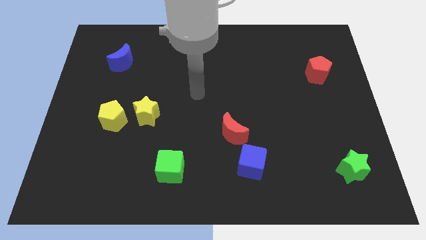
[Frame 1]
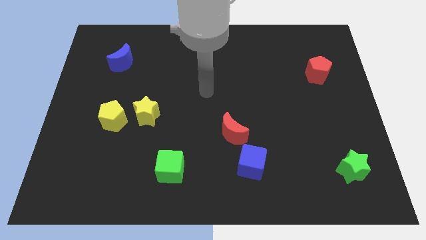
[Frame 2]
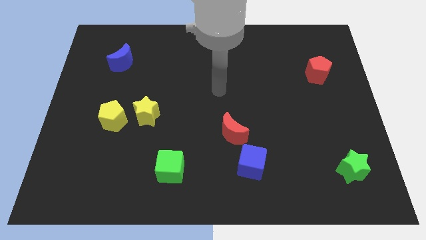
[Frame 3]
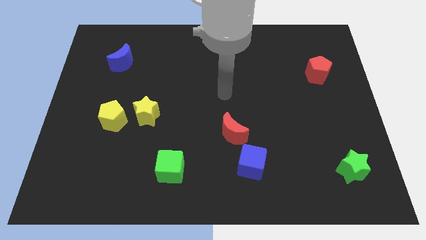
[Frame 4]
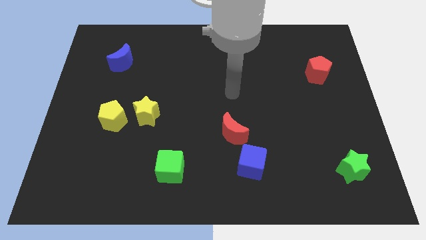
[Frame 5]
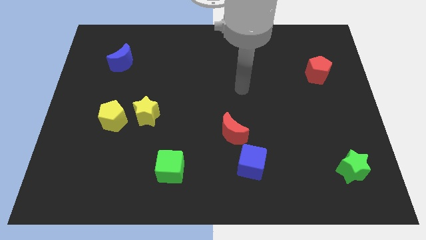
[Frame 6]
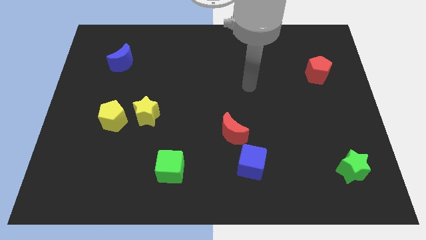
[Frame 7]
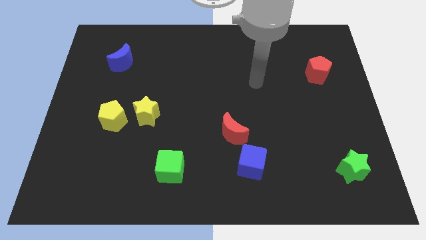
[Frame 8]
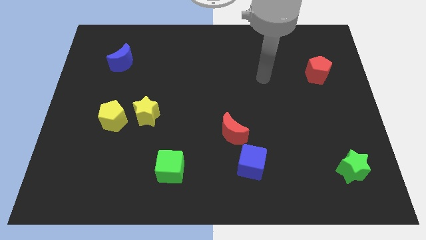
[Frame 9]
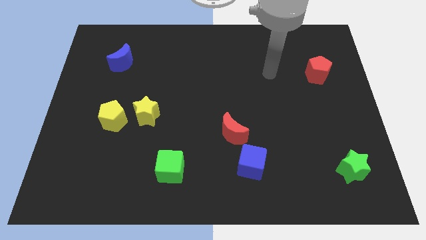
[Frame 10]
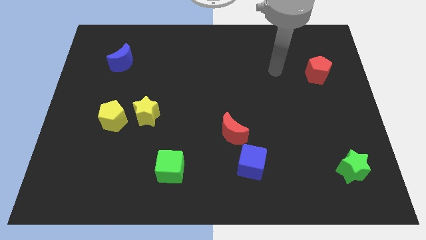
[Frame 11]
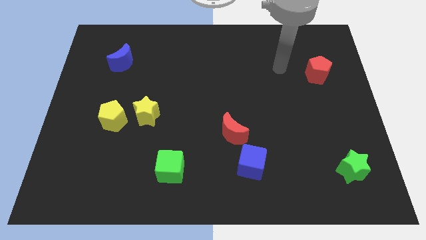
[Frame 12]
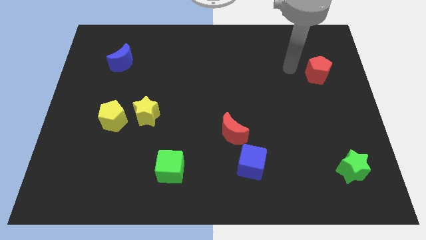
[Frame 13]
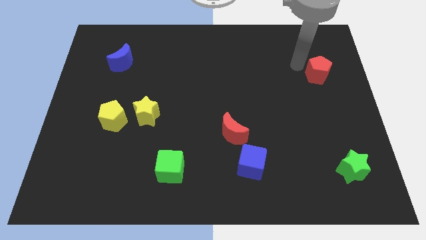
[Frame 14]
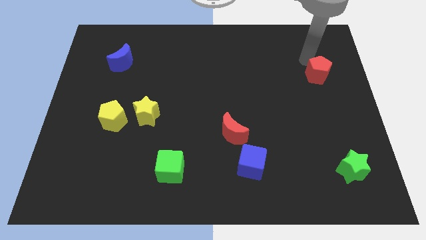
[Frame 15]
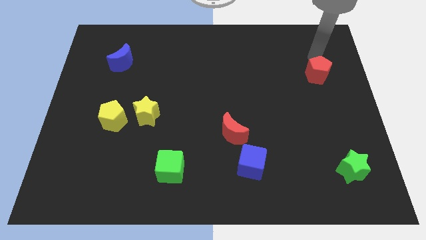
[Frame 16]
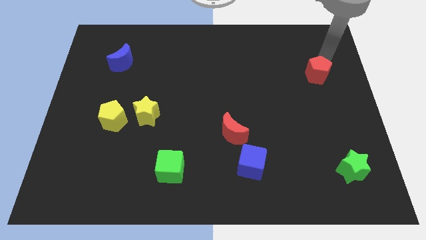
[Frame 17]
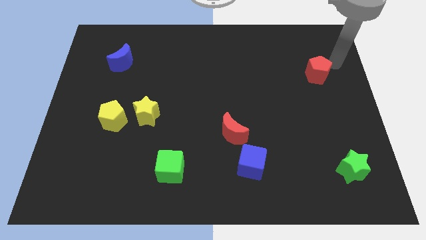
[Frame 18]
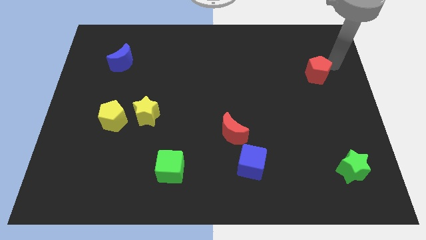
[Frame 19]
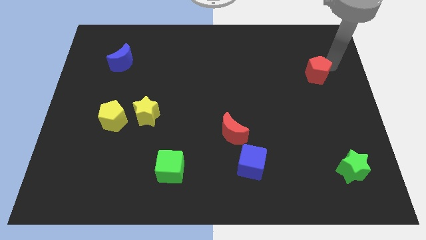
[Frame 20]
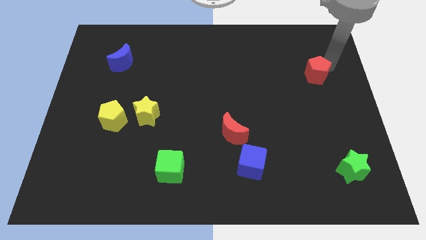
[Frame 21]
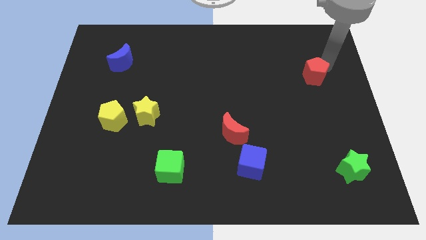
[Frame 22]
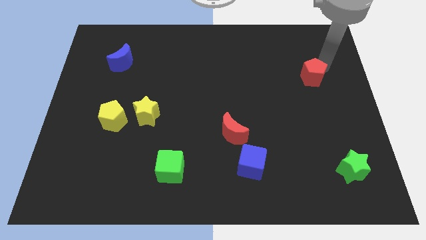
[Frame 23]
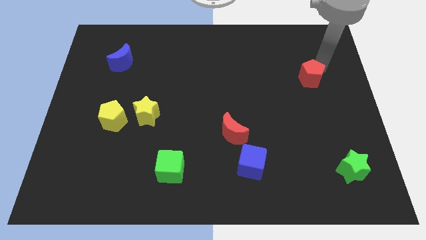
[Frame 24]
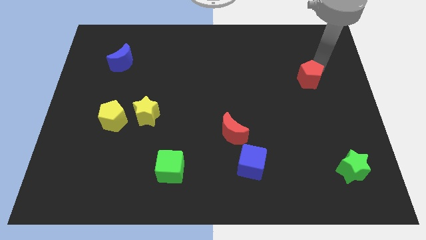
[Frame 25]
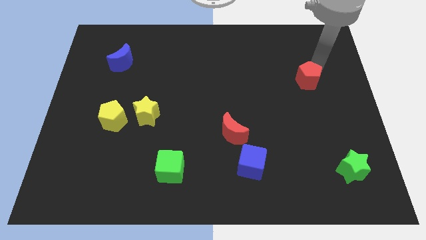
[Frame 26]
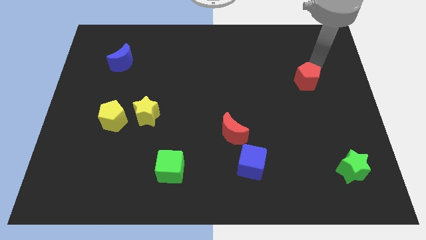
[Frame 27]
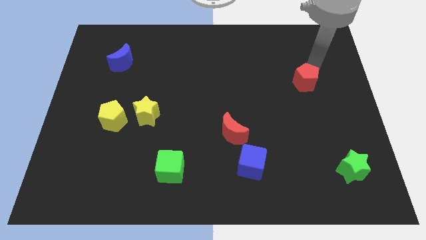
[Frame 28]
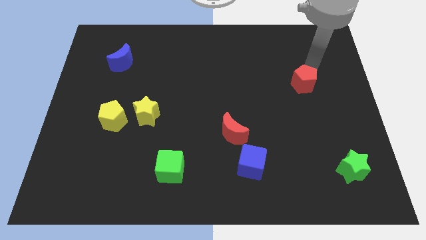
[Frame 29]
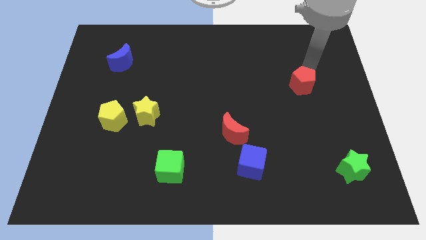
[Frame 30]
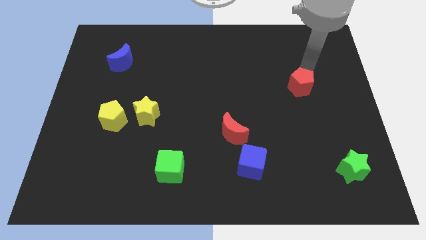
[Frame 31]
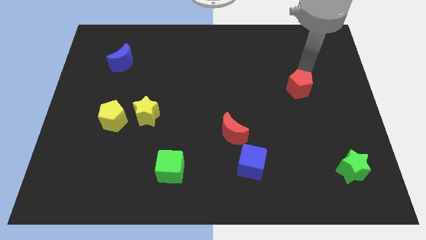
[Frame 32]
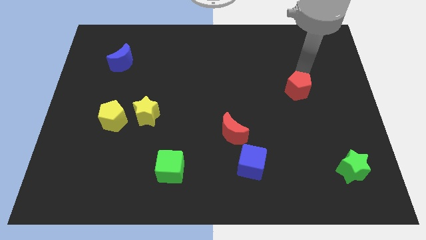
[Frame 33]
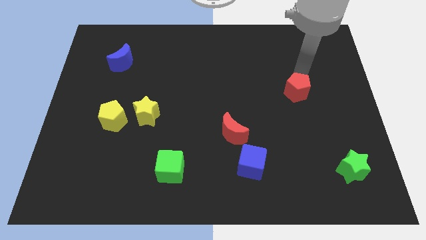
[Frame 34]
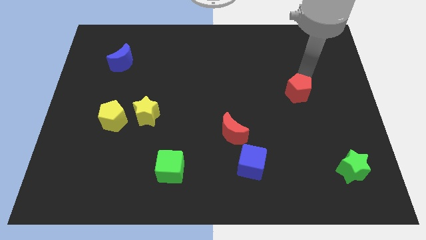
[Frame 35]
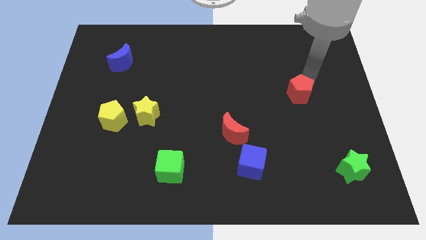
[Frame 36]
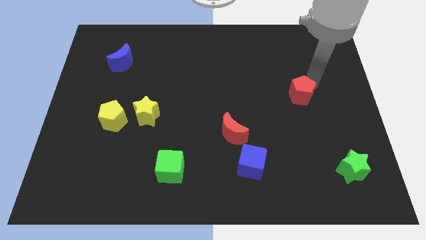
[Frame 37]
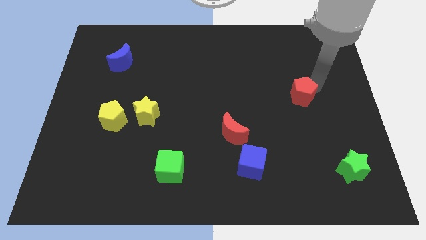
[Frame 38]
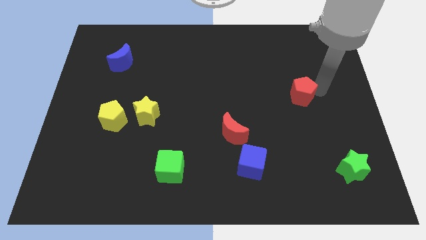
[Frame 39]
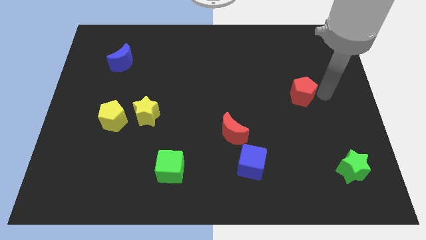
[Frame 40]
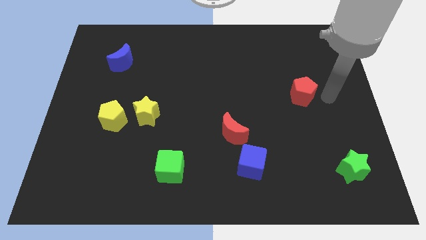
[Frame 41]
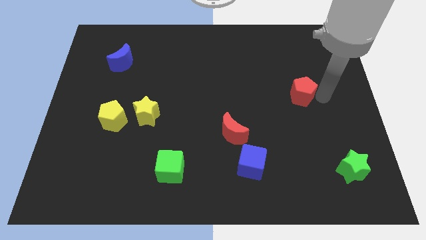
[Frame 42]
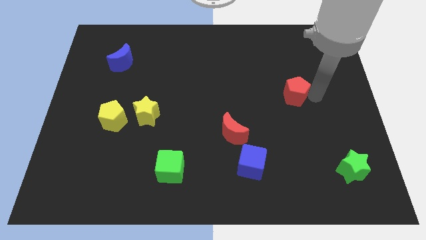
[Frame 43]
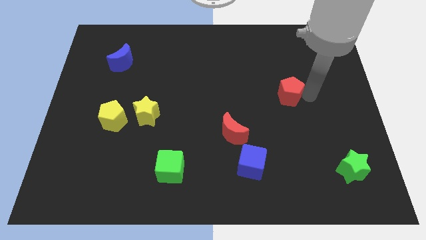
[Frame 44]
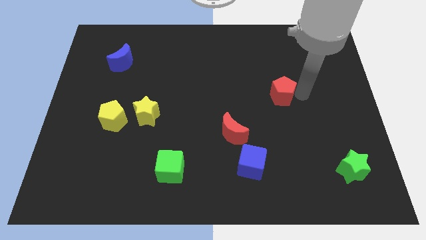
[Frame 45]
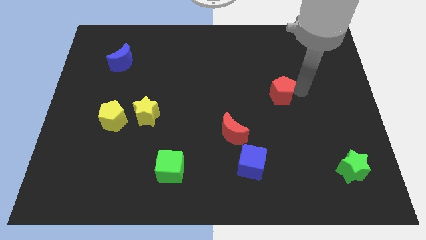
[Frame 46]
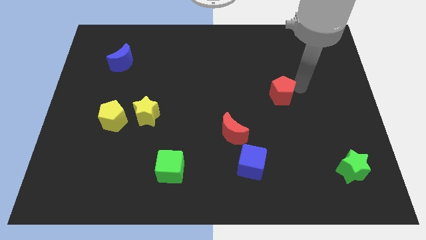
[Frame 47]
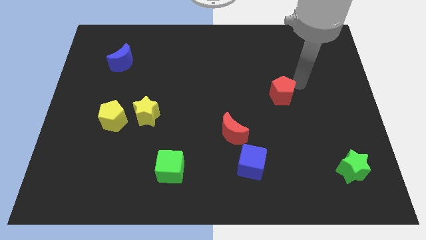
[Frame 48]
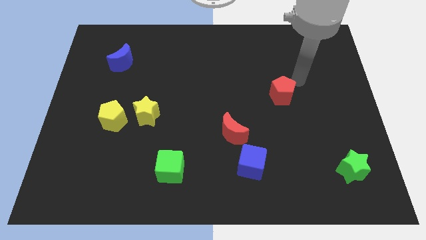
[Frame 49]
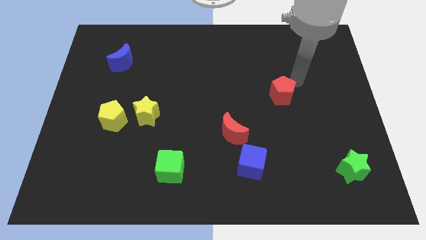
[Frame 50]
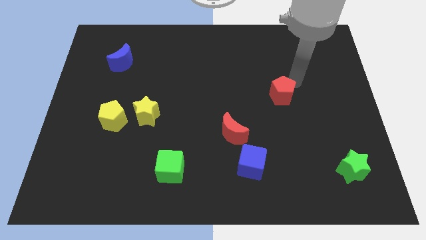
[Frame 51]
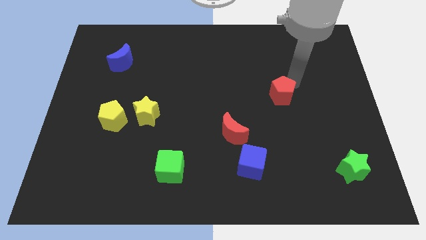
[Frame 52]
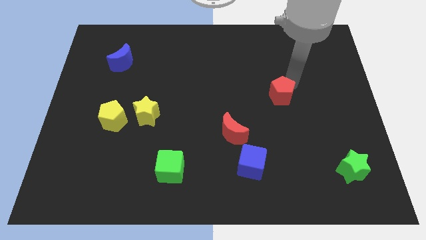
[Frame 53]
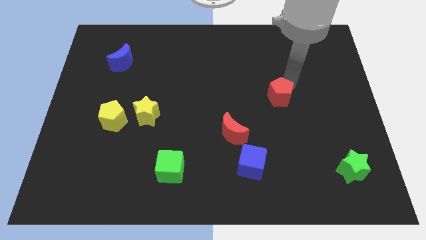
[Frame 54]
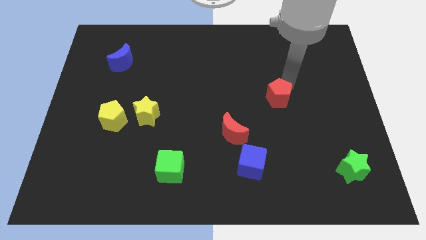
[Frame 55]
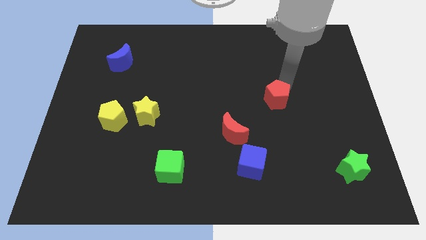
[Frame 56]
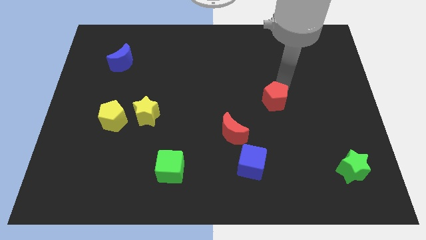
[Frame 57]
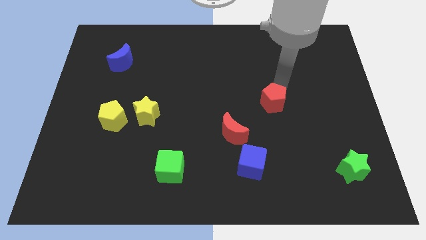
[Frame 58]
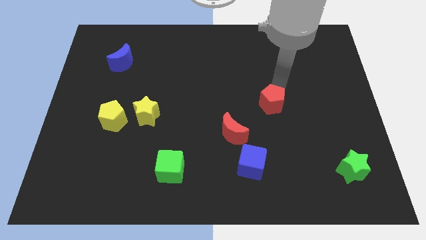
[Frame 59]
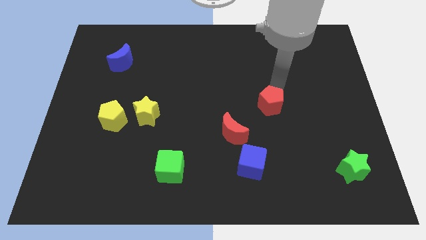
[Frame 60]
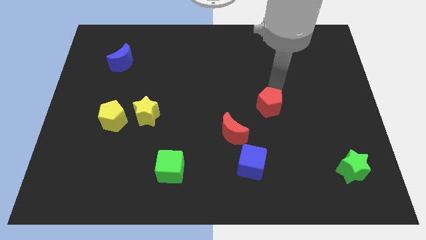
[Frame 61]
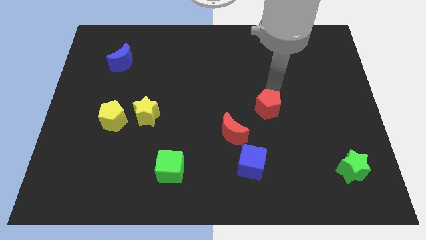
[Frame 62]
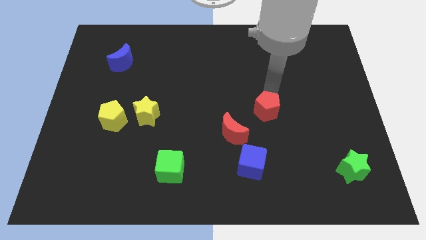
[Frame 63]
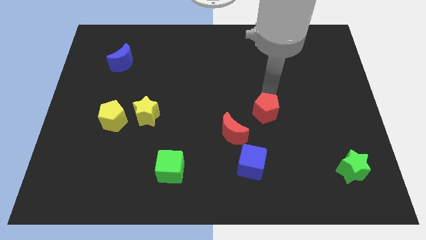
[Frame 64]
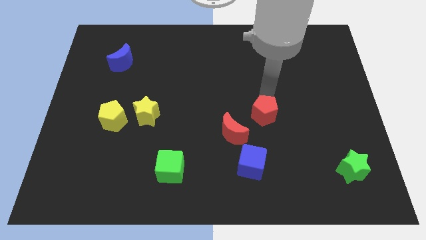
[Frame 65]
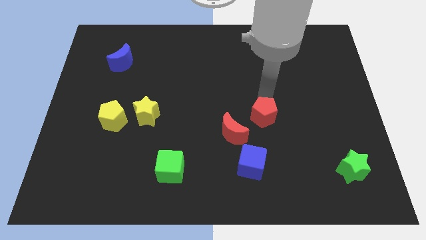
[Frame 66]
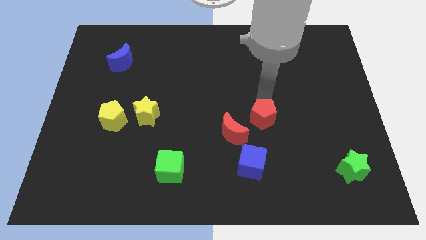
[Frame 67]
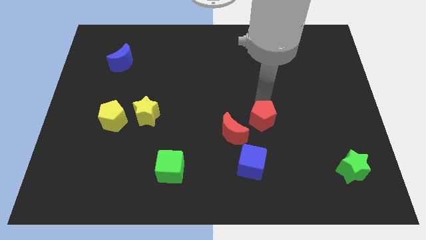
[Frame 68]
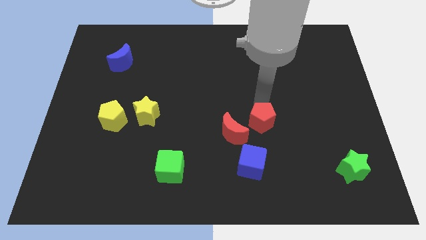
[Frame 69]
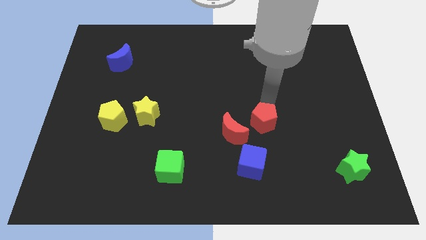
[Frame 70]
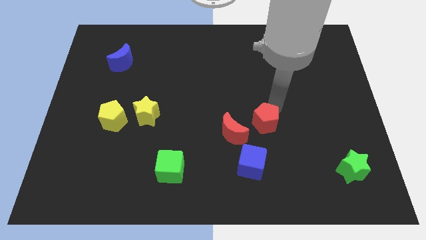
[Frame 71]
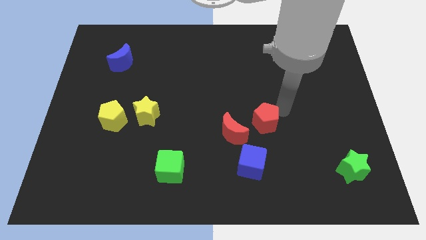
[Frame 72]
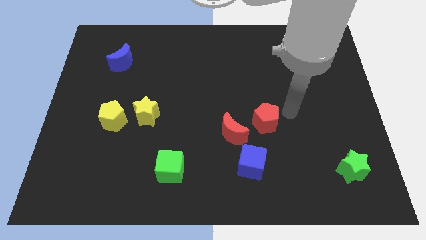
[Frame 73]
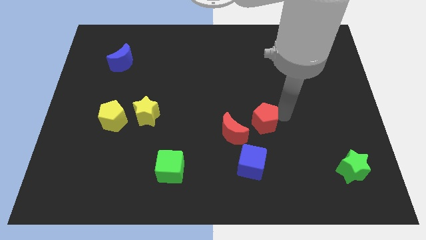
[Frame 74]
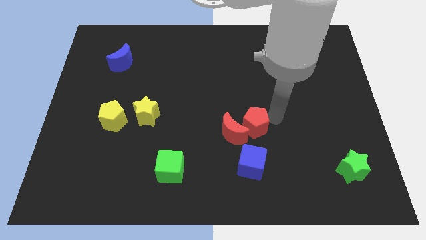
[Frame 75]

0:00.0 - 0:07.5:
move the red pentagon to the red moon
